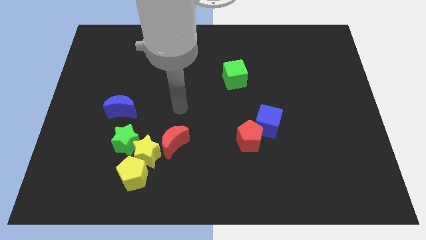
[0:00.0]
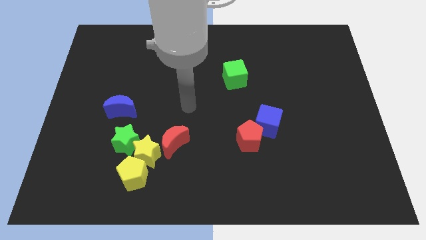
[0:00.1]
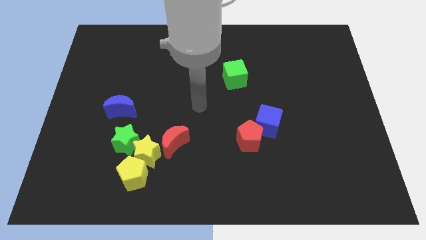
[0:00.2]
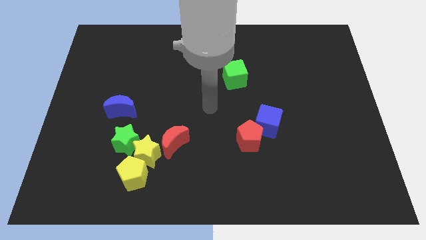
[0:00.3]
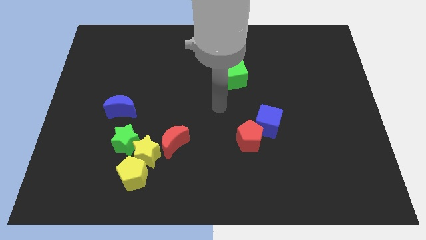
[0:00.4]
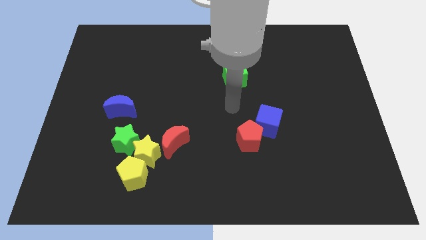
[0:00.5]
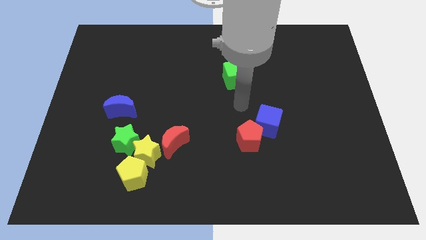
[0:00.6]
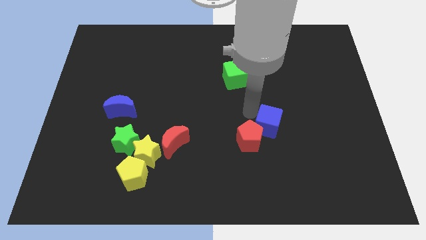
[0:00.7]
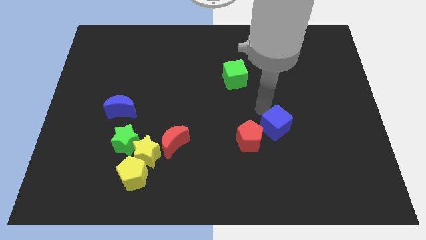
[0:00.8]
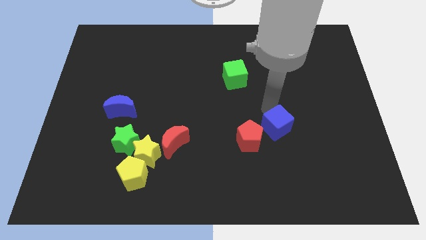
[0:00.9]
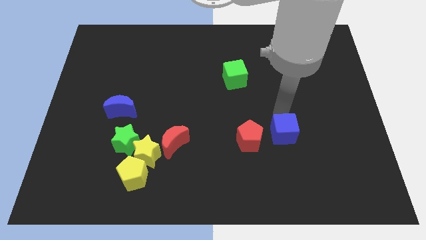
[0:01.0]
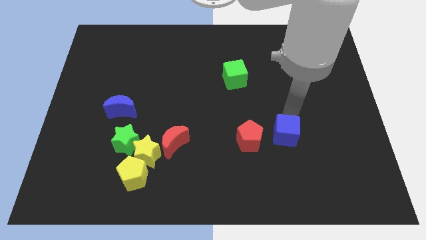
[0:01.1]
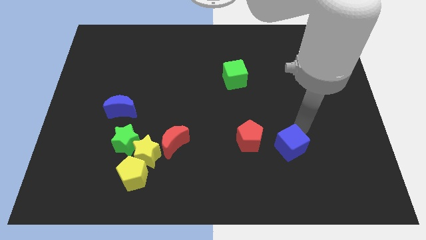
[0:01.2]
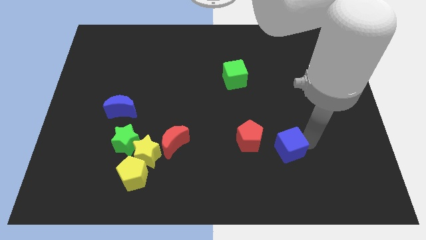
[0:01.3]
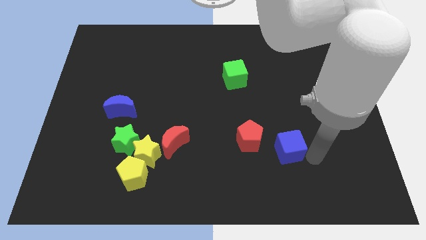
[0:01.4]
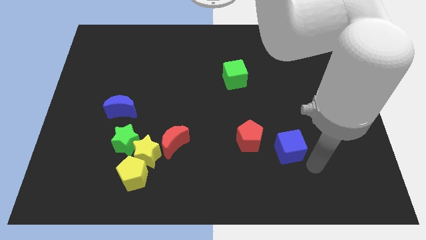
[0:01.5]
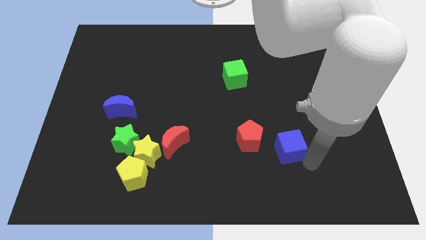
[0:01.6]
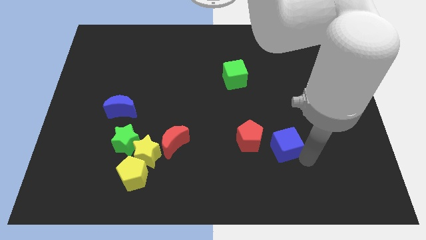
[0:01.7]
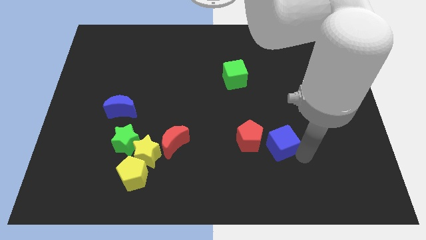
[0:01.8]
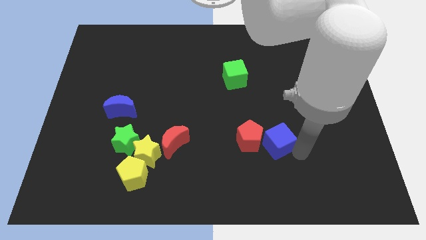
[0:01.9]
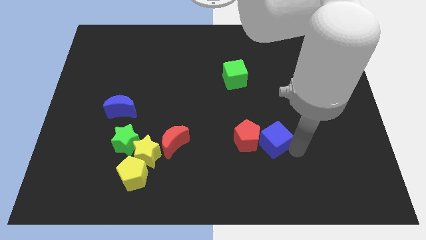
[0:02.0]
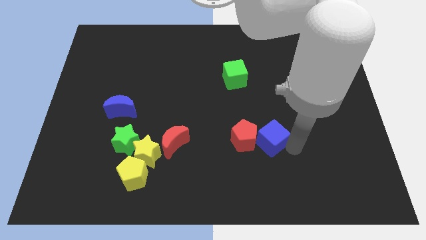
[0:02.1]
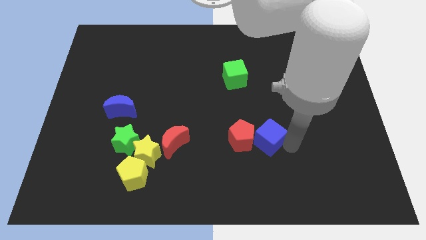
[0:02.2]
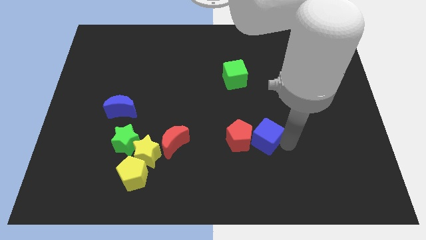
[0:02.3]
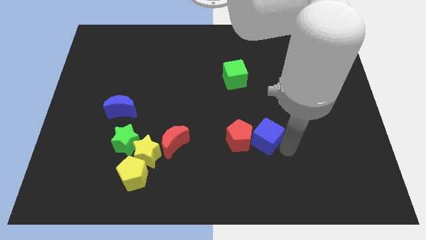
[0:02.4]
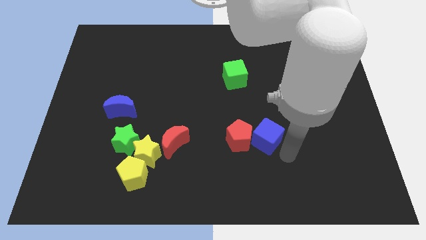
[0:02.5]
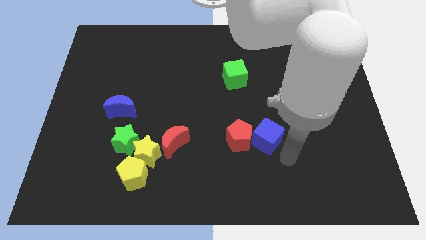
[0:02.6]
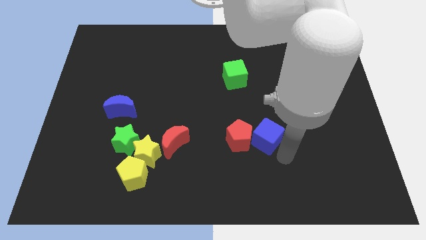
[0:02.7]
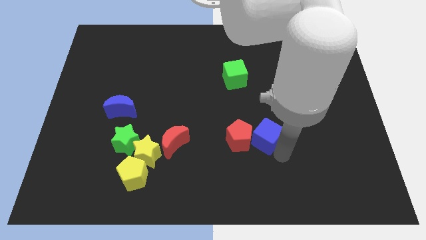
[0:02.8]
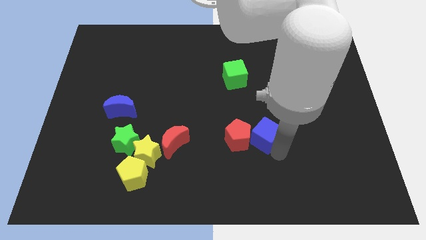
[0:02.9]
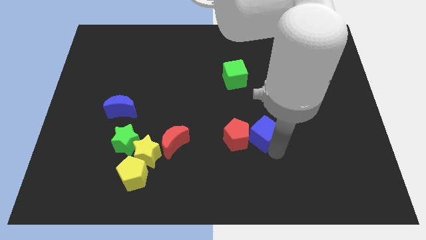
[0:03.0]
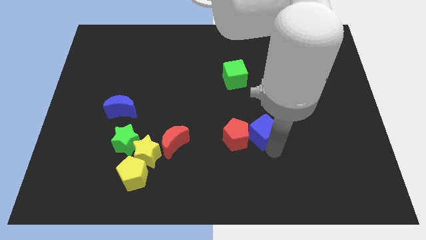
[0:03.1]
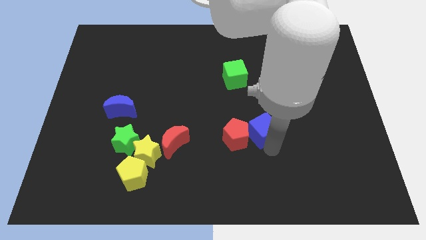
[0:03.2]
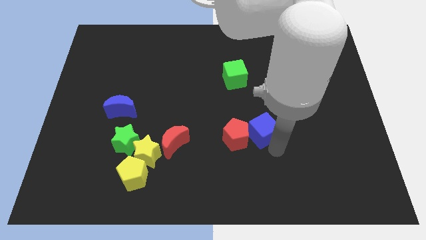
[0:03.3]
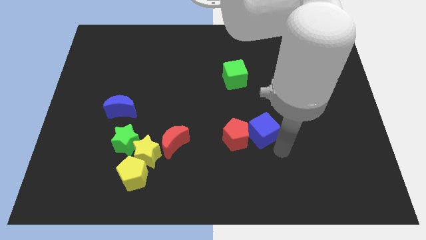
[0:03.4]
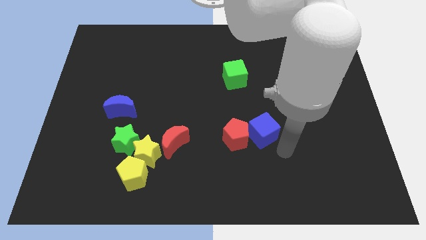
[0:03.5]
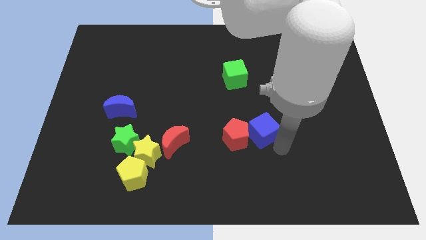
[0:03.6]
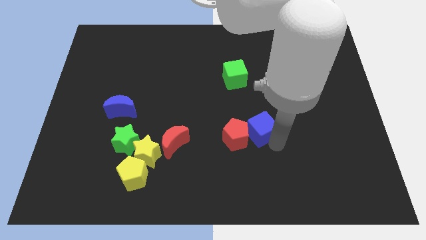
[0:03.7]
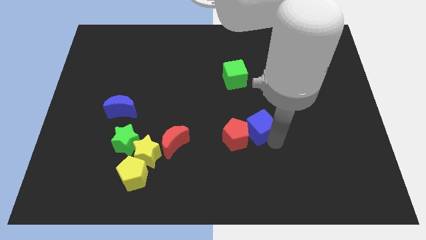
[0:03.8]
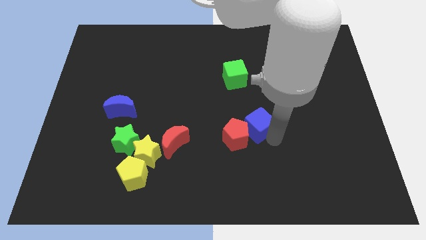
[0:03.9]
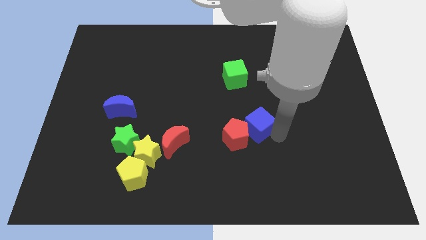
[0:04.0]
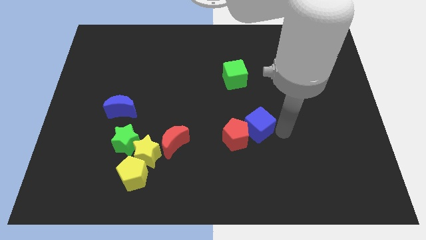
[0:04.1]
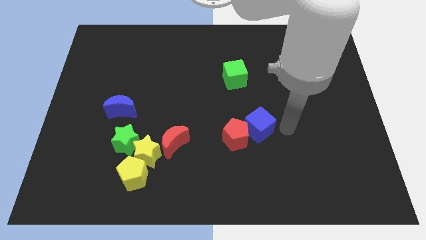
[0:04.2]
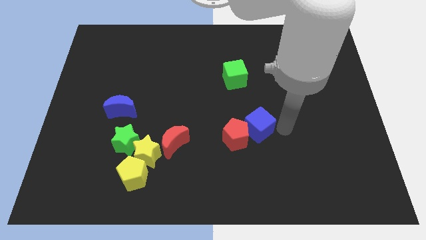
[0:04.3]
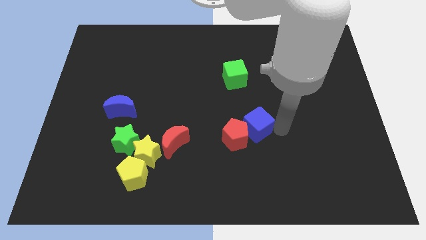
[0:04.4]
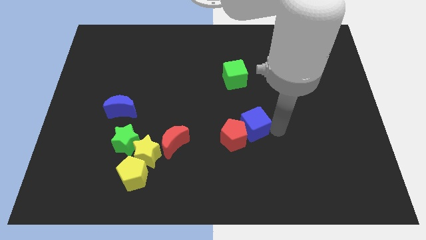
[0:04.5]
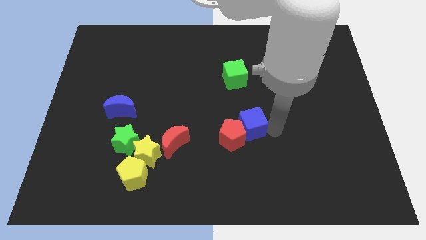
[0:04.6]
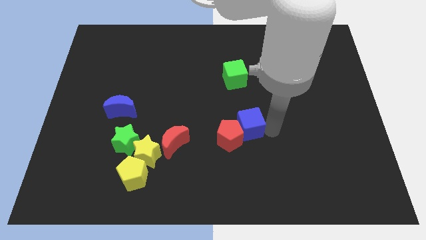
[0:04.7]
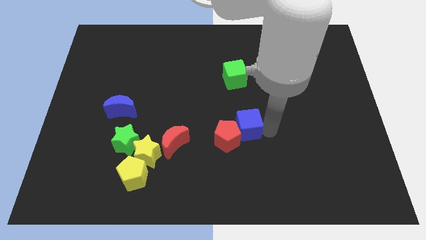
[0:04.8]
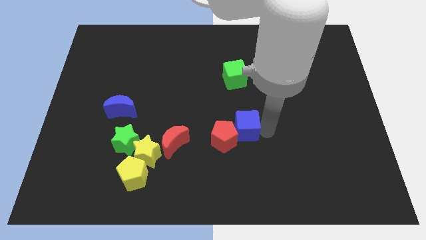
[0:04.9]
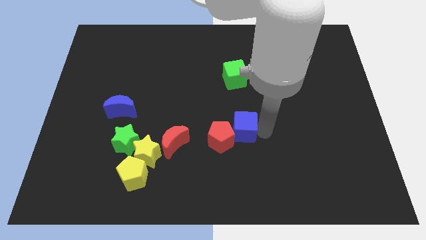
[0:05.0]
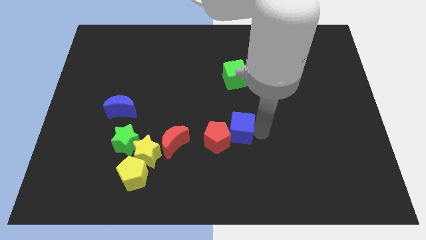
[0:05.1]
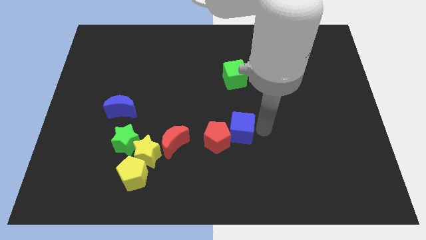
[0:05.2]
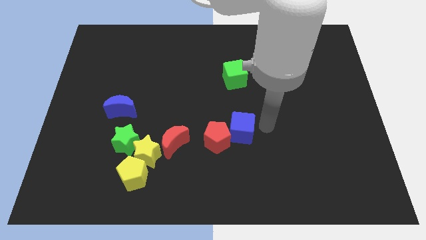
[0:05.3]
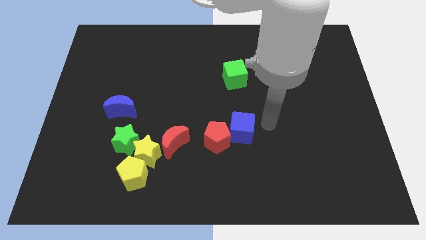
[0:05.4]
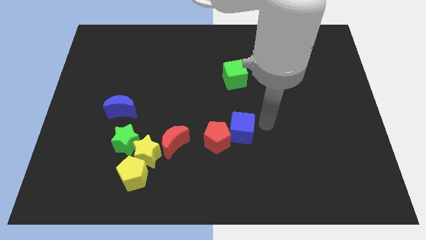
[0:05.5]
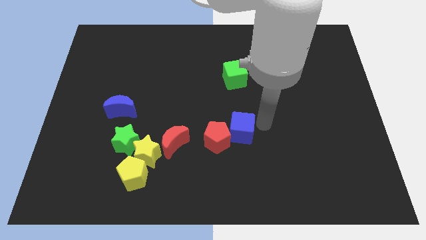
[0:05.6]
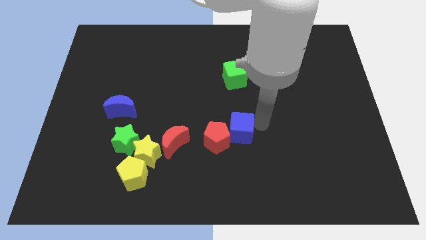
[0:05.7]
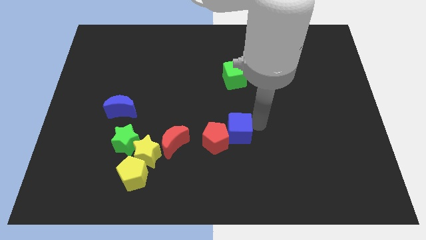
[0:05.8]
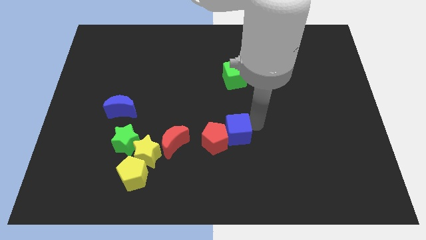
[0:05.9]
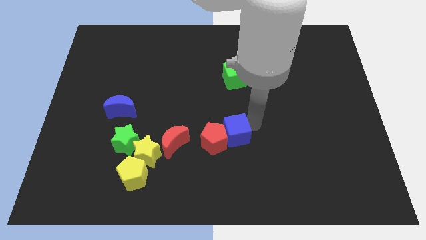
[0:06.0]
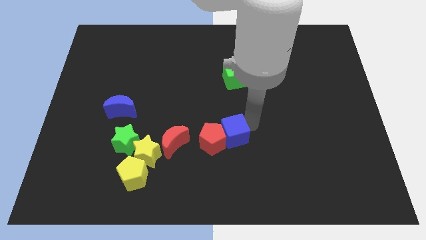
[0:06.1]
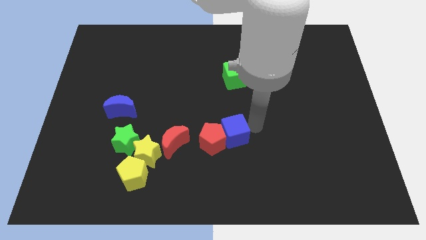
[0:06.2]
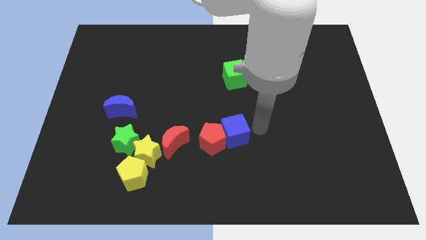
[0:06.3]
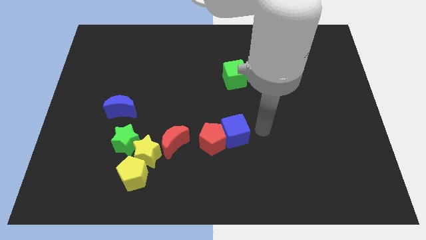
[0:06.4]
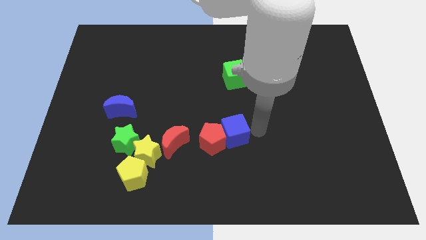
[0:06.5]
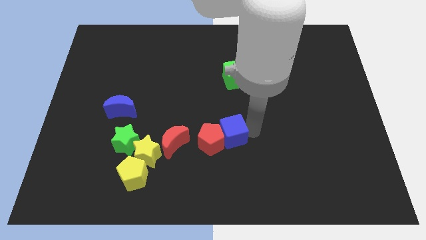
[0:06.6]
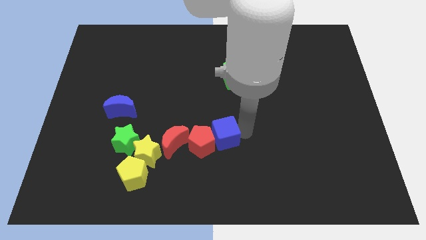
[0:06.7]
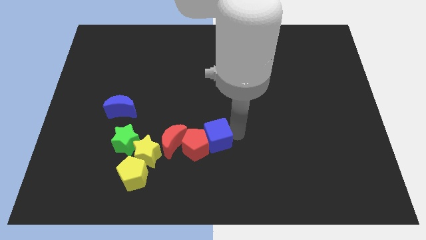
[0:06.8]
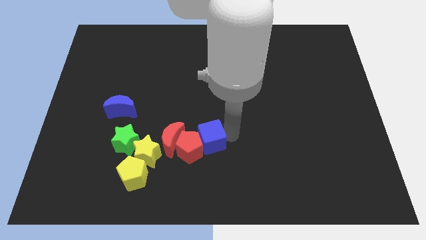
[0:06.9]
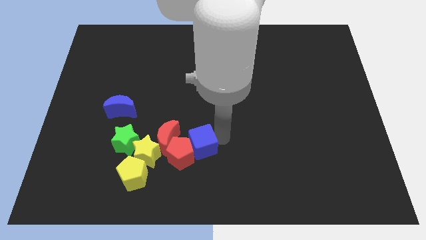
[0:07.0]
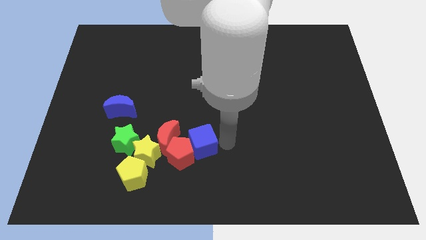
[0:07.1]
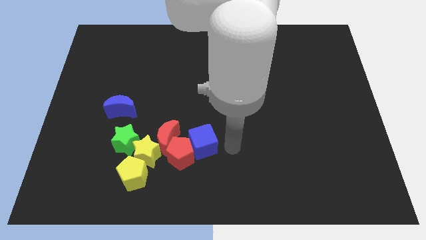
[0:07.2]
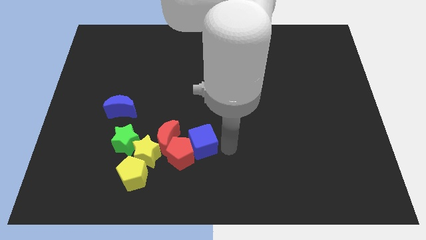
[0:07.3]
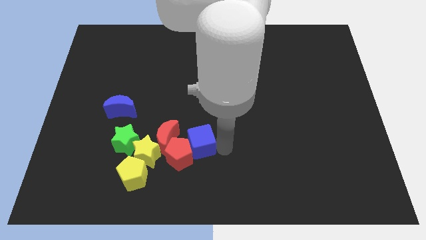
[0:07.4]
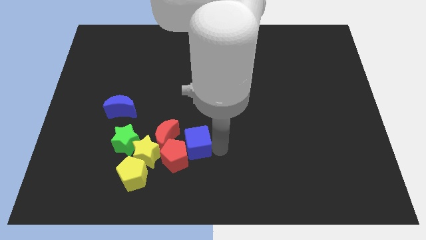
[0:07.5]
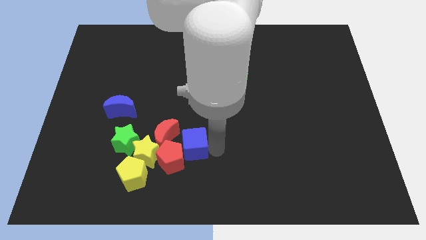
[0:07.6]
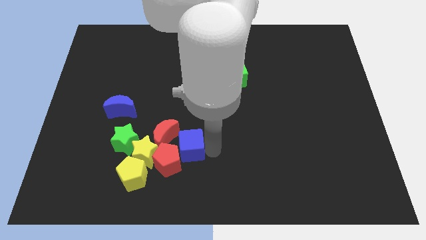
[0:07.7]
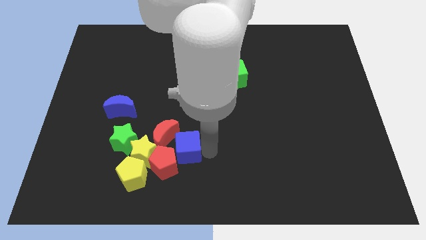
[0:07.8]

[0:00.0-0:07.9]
put the blue cube to the red moon
